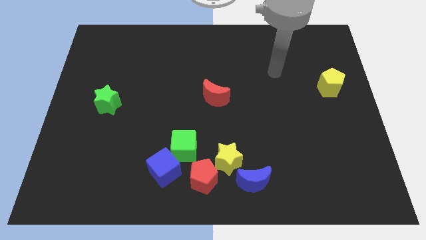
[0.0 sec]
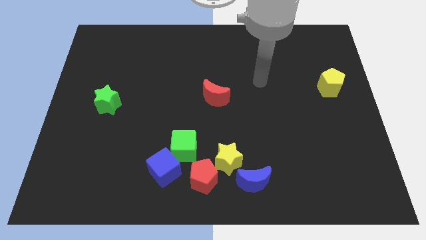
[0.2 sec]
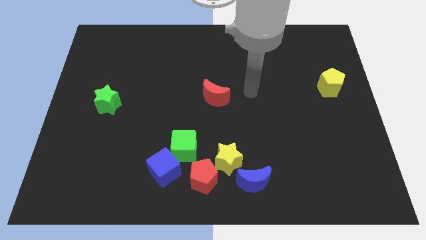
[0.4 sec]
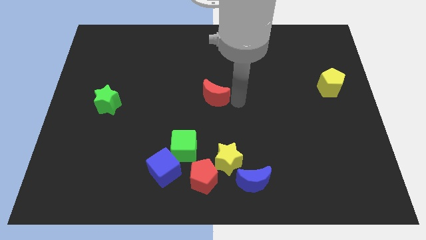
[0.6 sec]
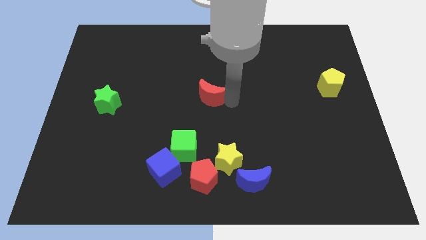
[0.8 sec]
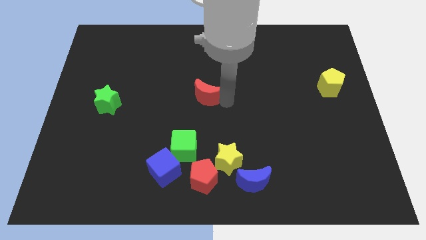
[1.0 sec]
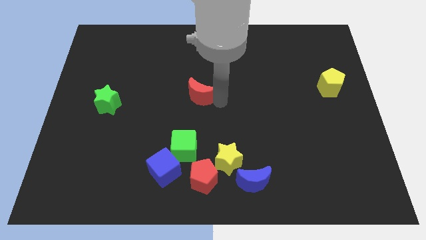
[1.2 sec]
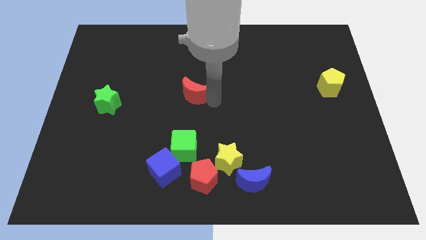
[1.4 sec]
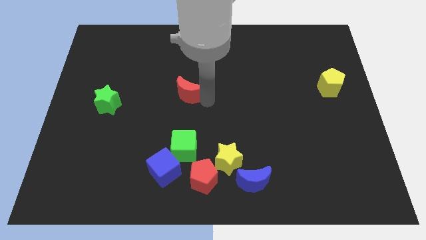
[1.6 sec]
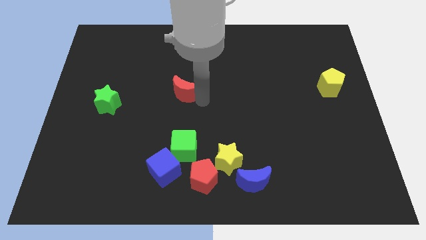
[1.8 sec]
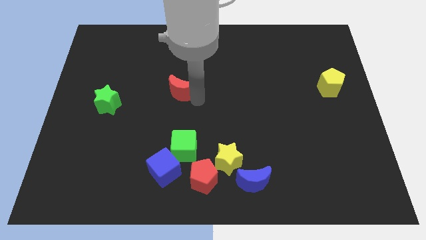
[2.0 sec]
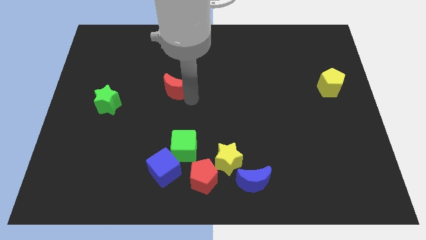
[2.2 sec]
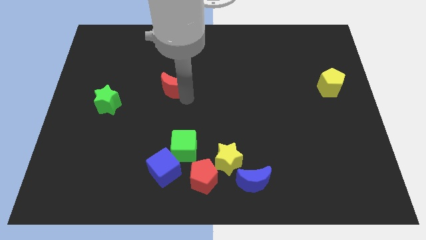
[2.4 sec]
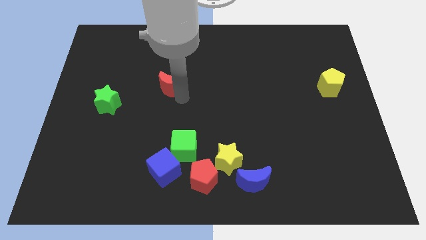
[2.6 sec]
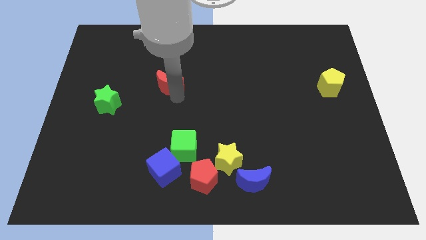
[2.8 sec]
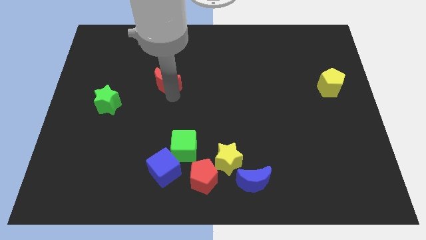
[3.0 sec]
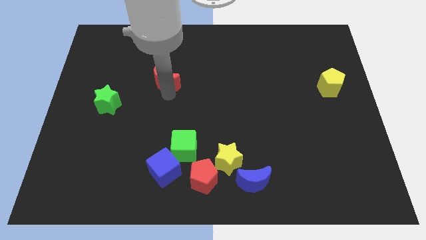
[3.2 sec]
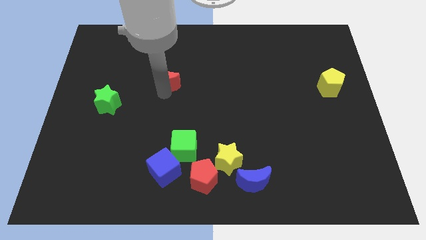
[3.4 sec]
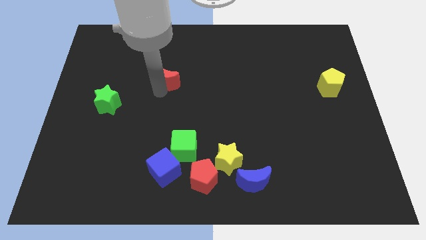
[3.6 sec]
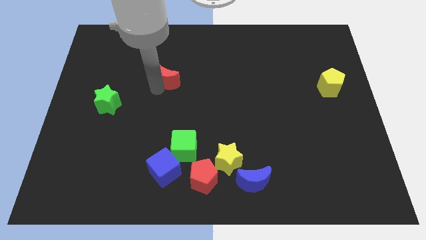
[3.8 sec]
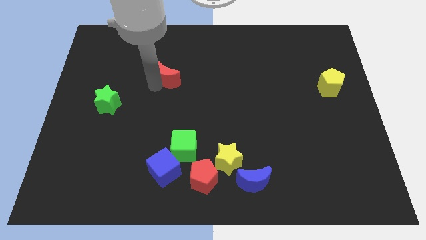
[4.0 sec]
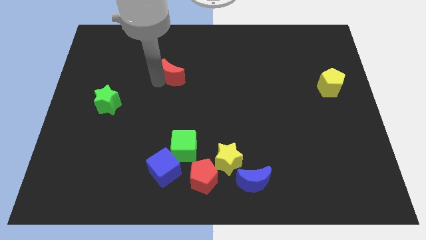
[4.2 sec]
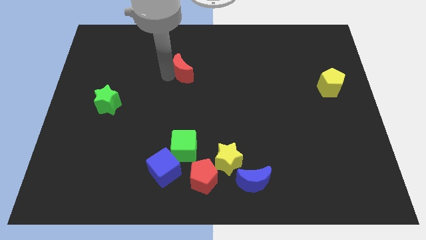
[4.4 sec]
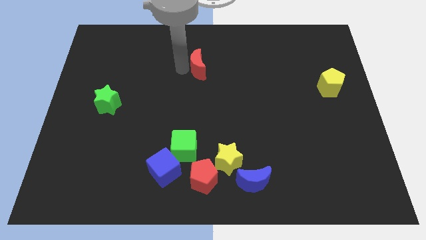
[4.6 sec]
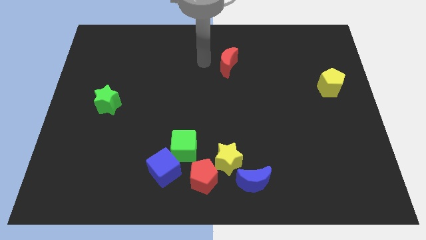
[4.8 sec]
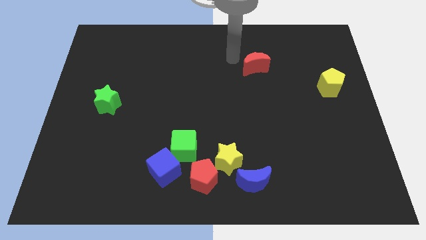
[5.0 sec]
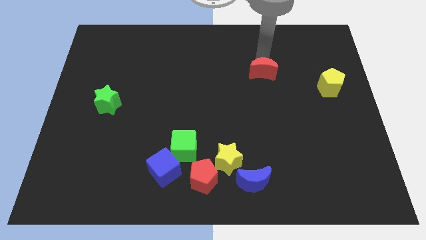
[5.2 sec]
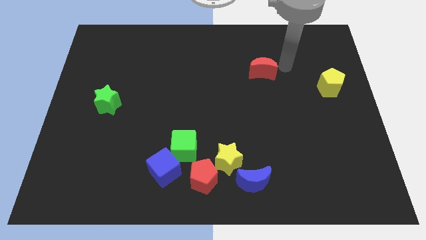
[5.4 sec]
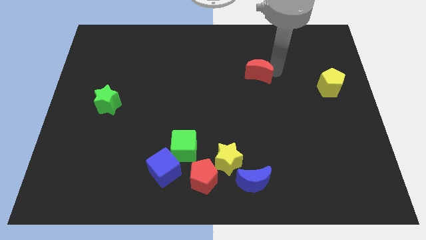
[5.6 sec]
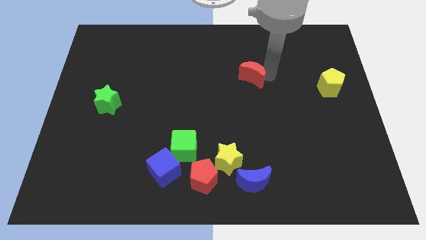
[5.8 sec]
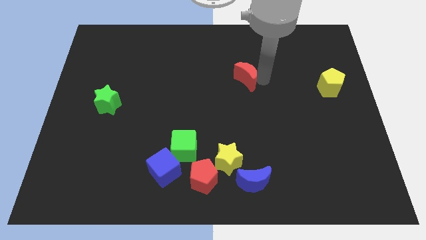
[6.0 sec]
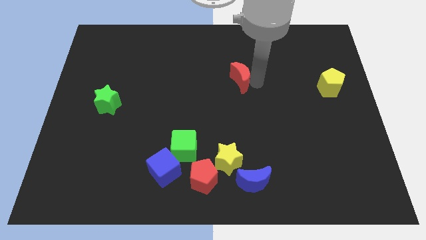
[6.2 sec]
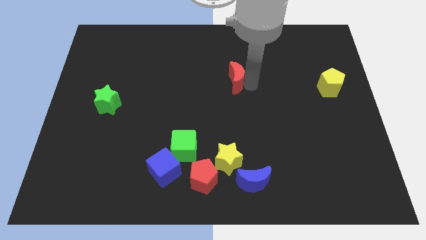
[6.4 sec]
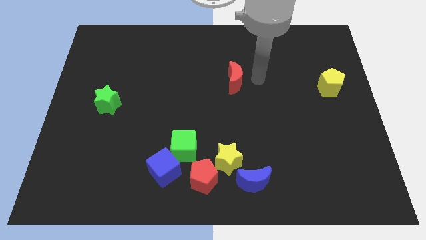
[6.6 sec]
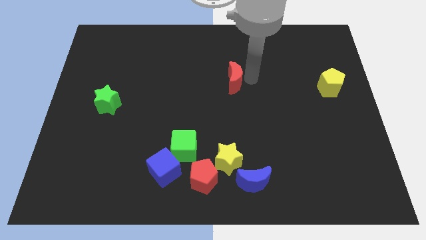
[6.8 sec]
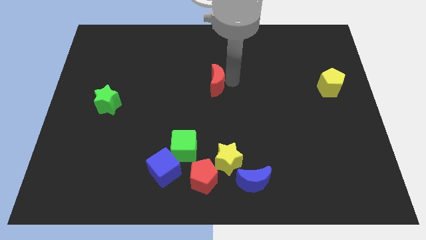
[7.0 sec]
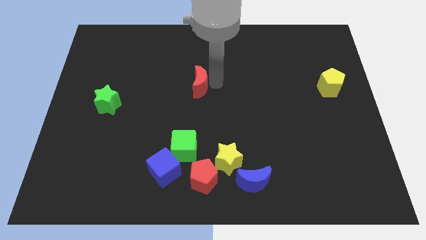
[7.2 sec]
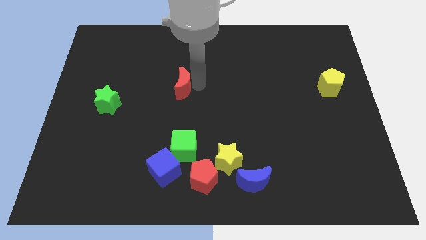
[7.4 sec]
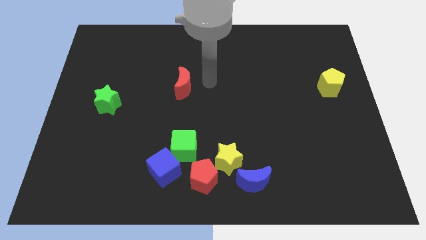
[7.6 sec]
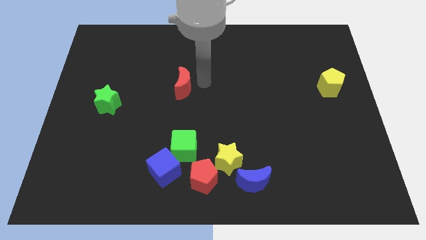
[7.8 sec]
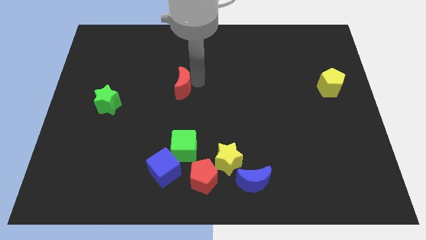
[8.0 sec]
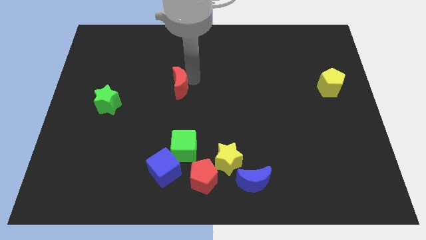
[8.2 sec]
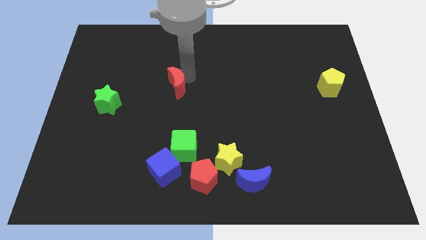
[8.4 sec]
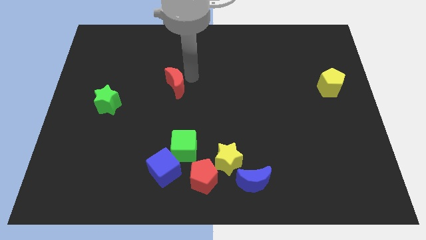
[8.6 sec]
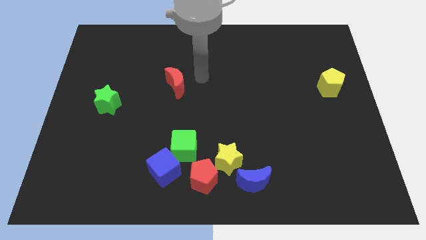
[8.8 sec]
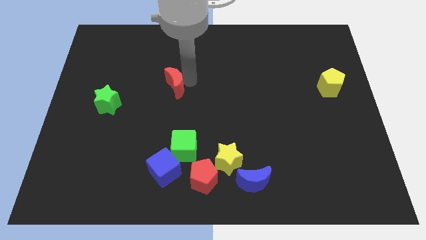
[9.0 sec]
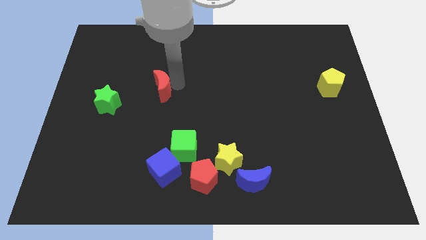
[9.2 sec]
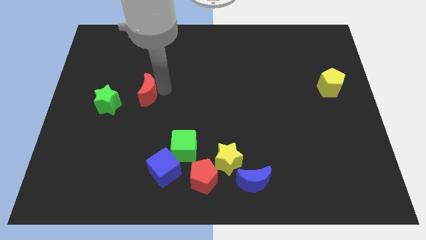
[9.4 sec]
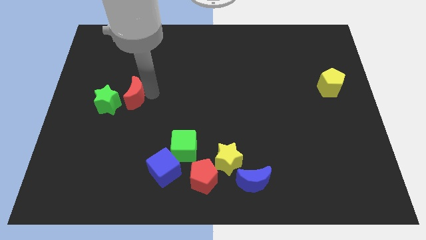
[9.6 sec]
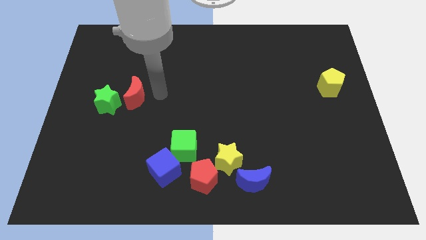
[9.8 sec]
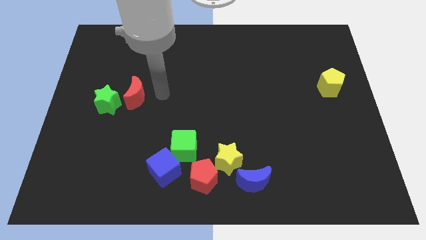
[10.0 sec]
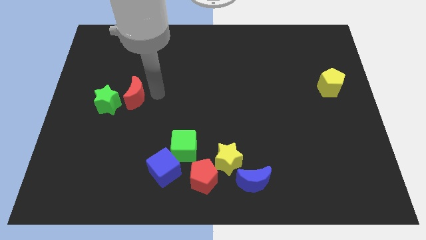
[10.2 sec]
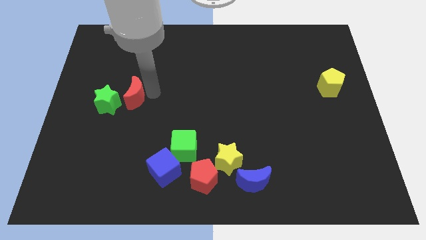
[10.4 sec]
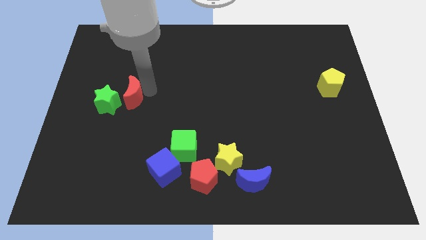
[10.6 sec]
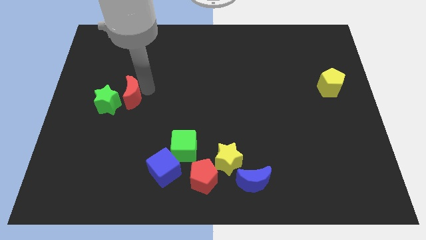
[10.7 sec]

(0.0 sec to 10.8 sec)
move the red moon close to the green star
